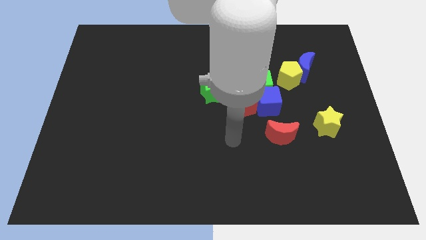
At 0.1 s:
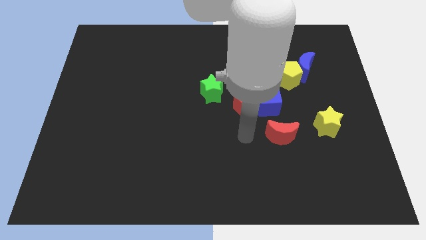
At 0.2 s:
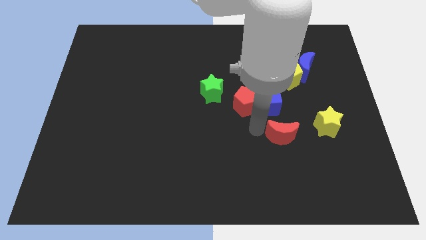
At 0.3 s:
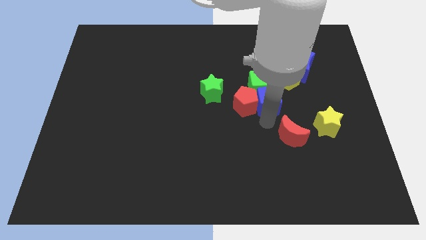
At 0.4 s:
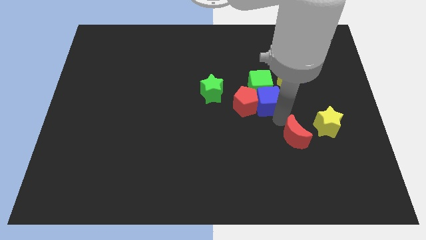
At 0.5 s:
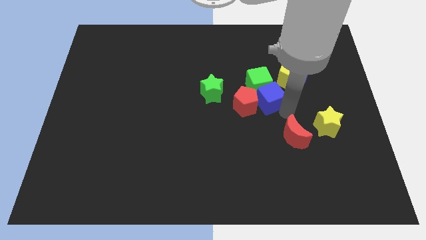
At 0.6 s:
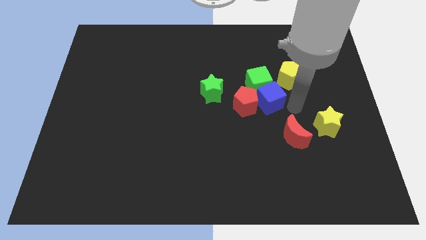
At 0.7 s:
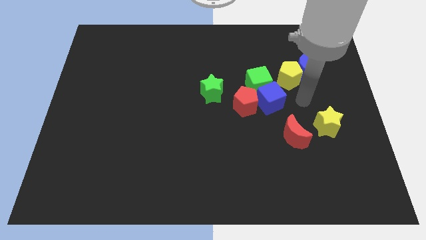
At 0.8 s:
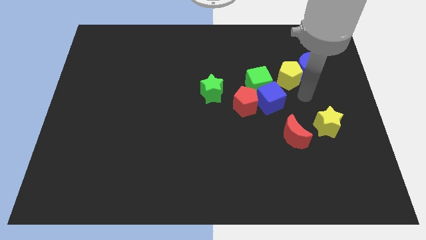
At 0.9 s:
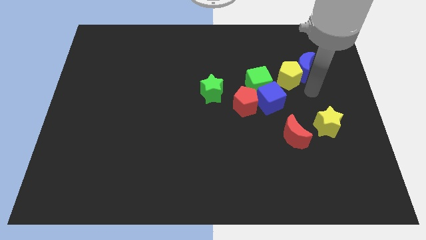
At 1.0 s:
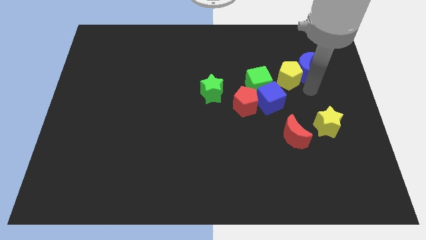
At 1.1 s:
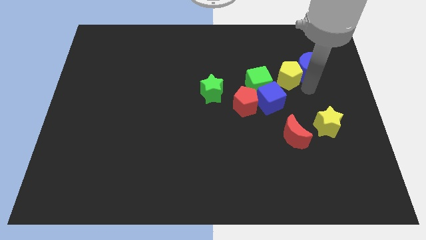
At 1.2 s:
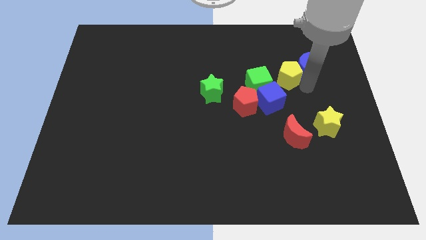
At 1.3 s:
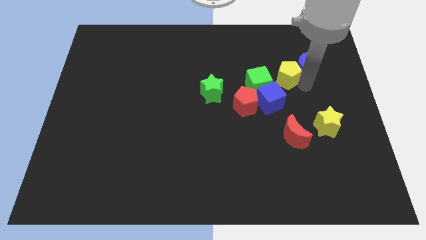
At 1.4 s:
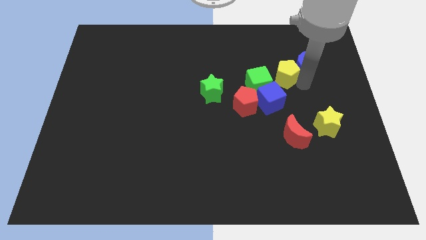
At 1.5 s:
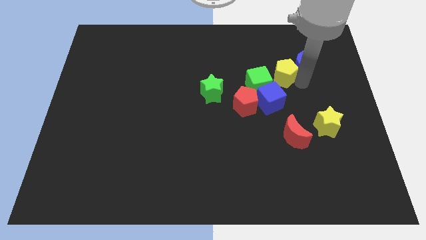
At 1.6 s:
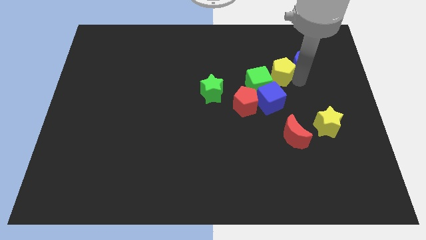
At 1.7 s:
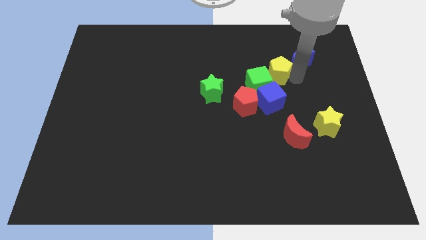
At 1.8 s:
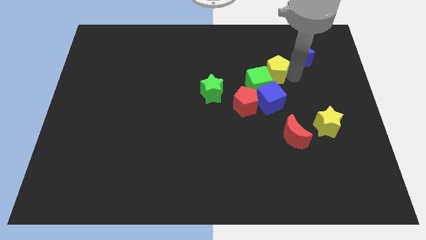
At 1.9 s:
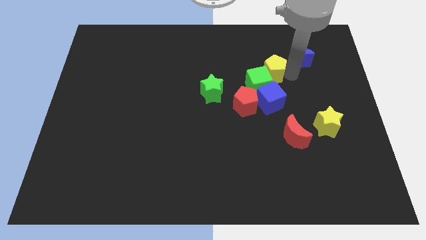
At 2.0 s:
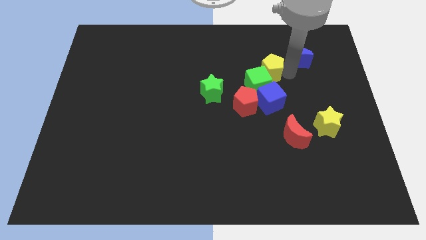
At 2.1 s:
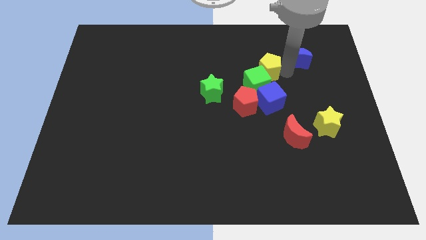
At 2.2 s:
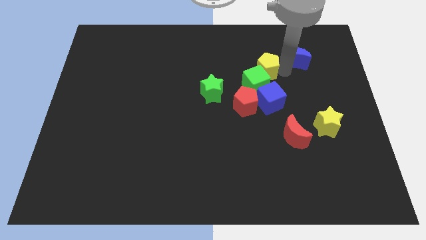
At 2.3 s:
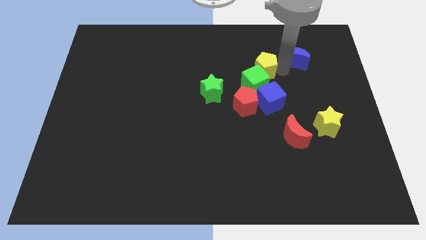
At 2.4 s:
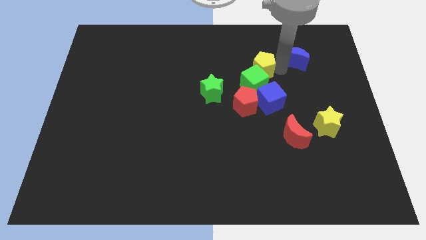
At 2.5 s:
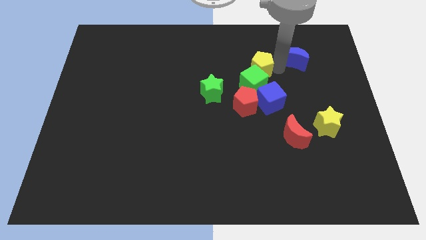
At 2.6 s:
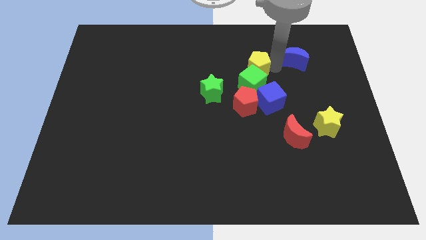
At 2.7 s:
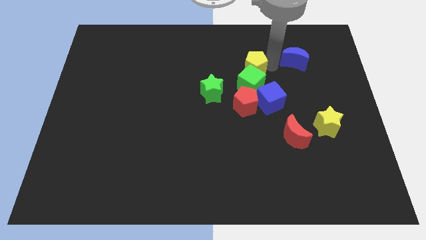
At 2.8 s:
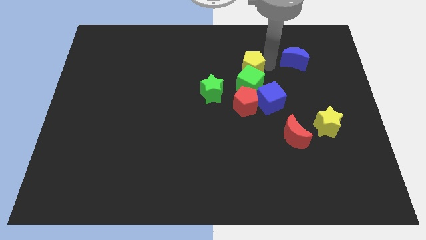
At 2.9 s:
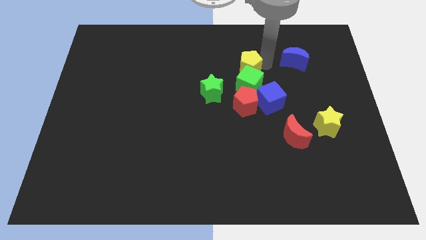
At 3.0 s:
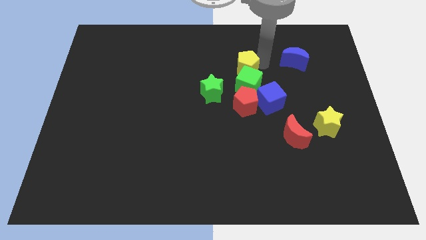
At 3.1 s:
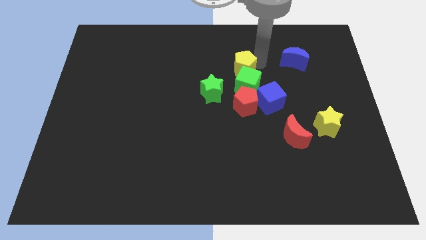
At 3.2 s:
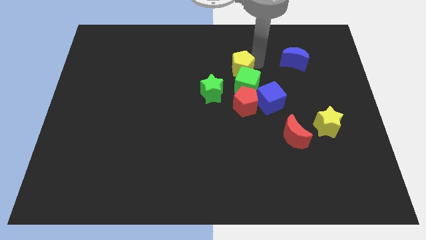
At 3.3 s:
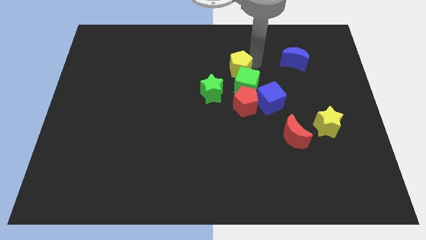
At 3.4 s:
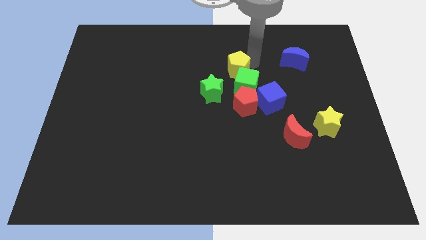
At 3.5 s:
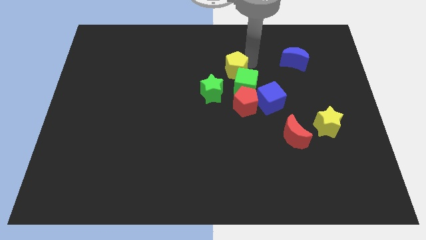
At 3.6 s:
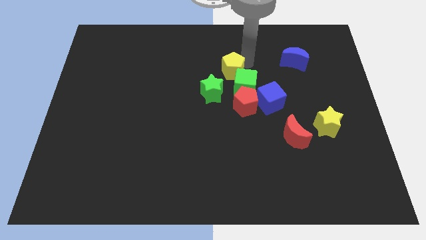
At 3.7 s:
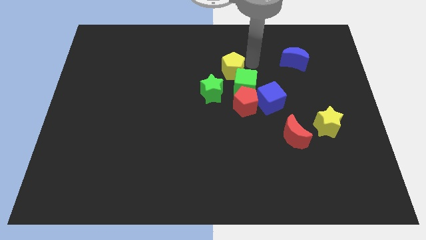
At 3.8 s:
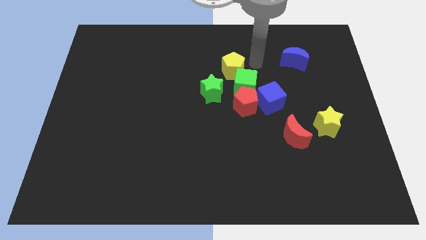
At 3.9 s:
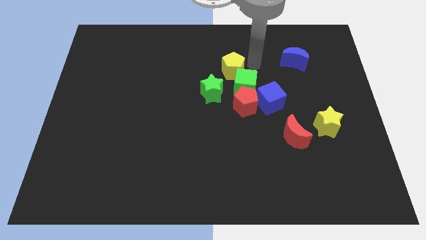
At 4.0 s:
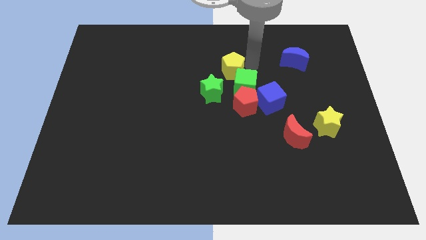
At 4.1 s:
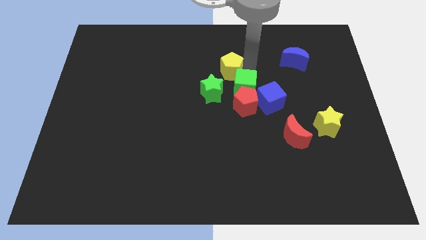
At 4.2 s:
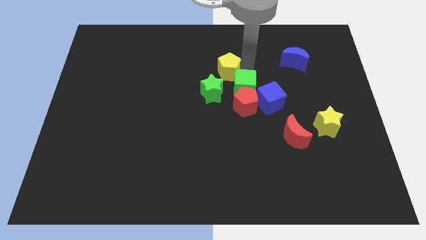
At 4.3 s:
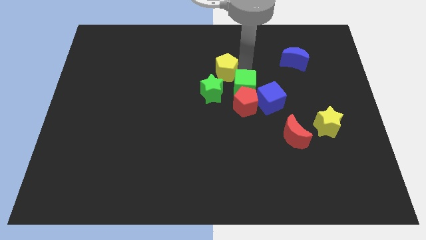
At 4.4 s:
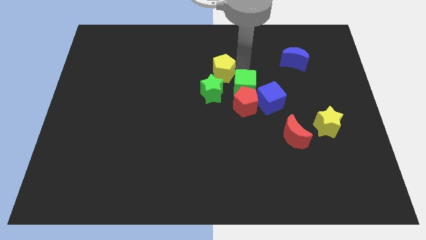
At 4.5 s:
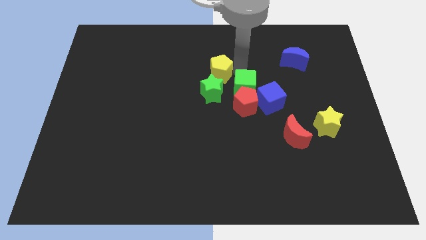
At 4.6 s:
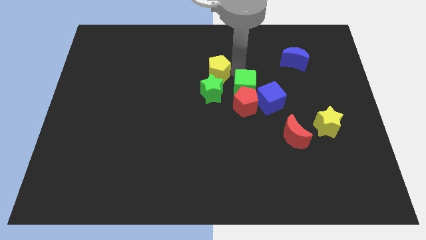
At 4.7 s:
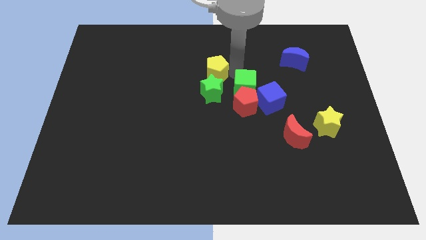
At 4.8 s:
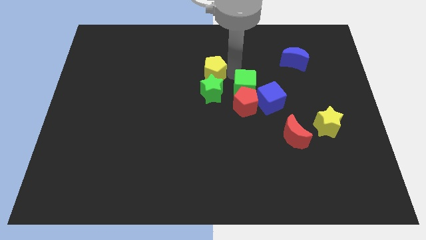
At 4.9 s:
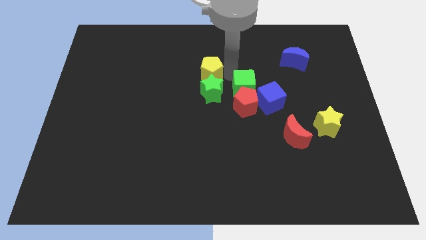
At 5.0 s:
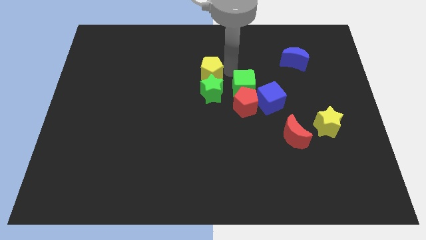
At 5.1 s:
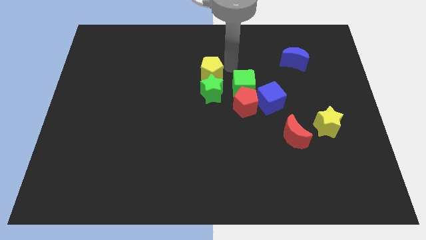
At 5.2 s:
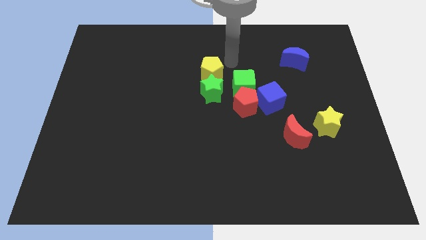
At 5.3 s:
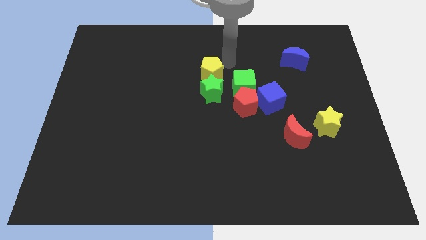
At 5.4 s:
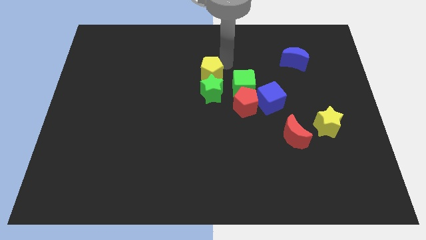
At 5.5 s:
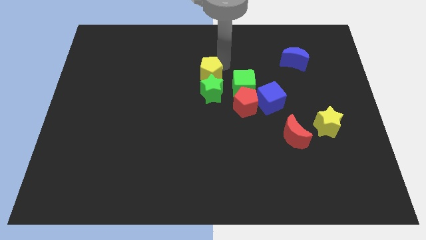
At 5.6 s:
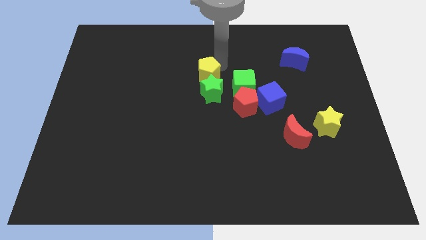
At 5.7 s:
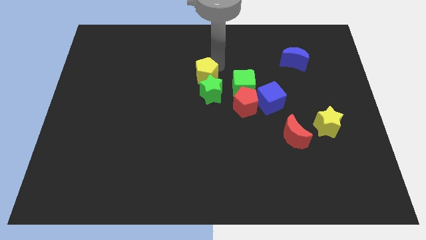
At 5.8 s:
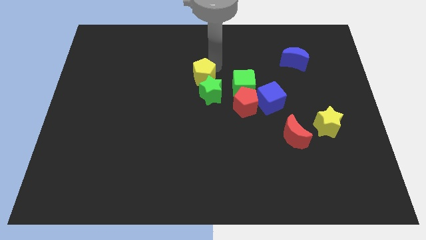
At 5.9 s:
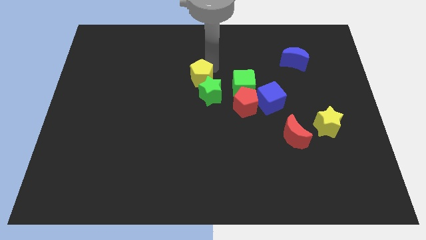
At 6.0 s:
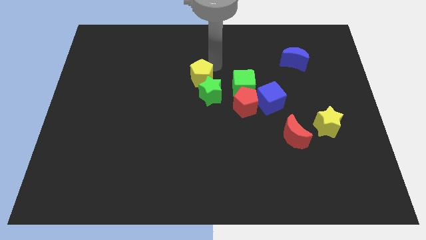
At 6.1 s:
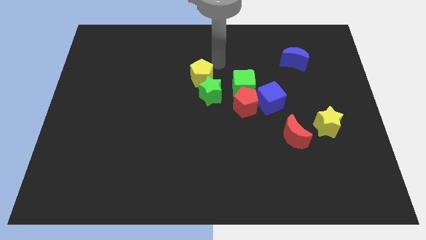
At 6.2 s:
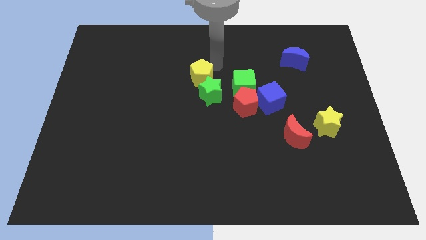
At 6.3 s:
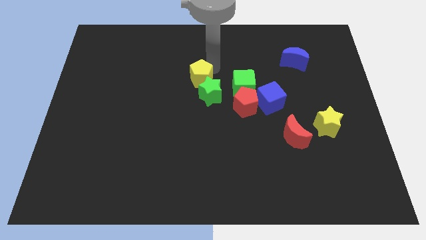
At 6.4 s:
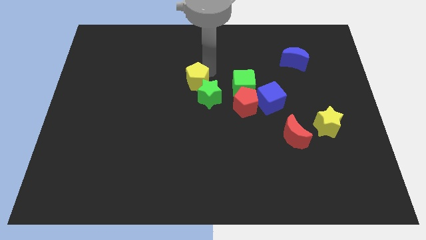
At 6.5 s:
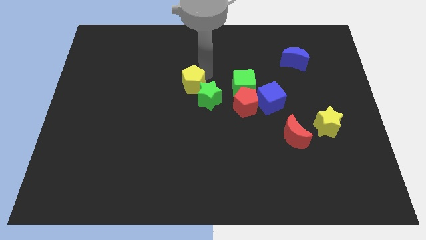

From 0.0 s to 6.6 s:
slide the yellow pentagon just left of the green star
